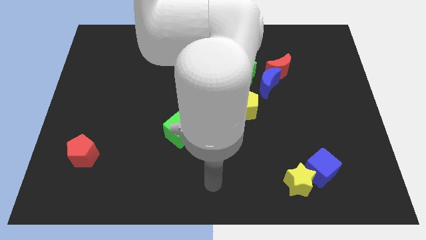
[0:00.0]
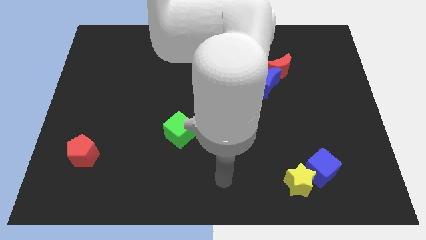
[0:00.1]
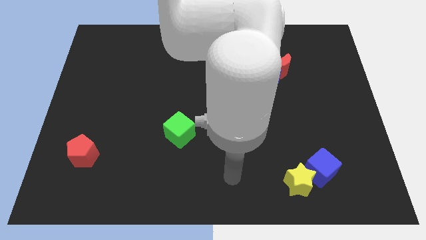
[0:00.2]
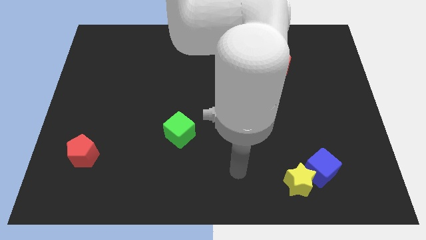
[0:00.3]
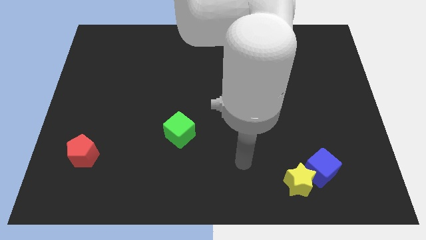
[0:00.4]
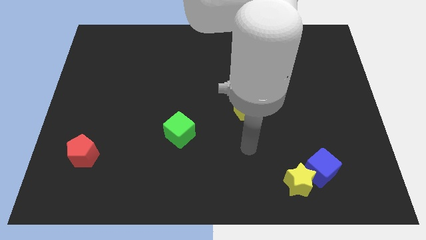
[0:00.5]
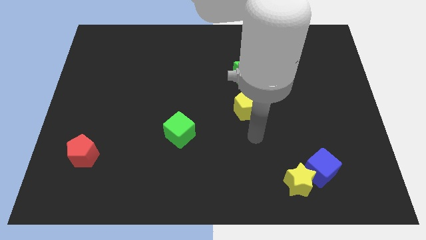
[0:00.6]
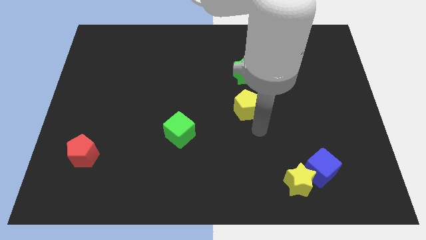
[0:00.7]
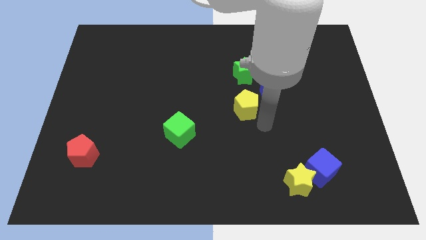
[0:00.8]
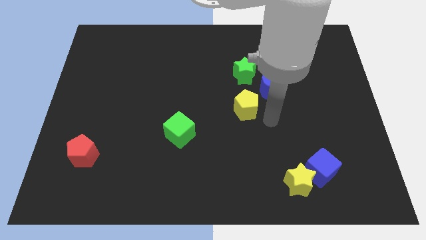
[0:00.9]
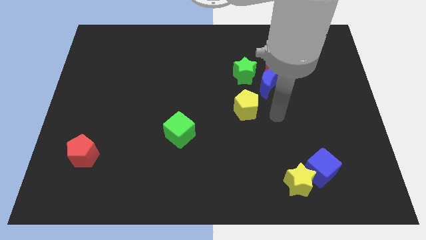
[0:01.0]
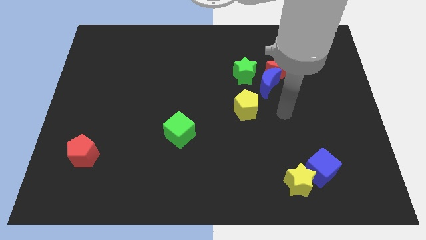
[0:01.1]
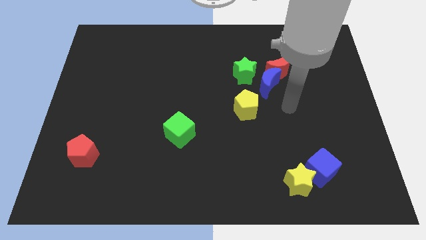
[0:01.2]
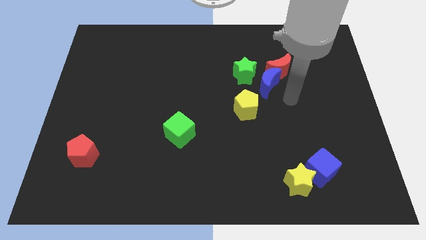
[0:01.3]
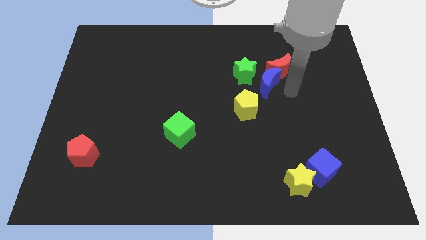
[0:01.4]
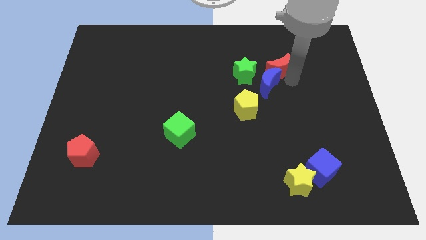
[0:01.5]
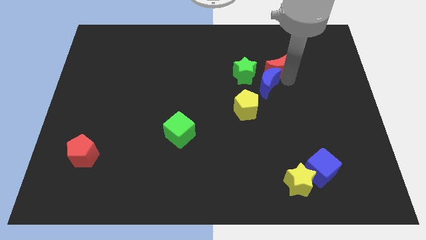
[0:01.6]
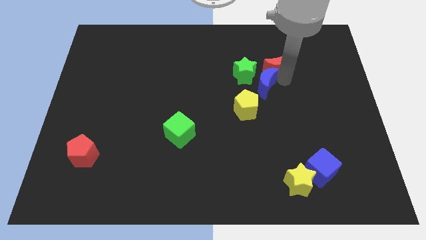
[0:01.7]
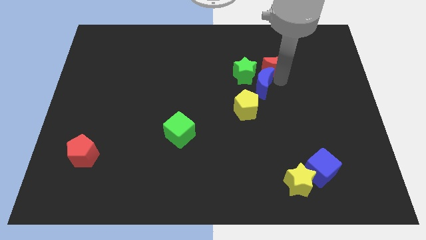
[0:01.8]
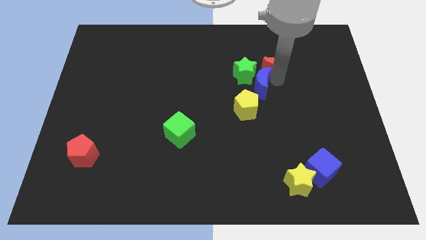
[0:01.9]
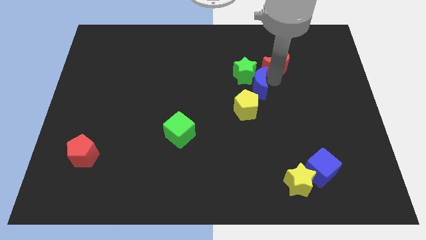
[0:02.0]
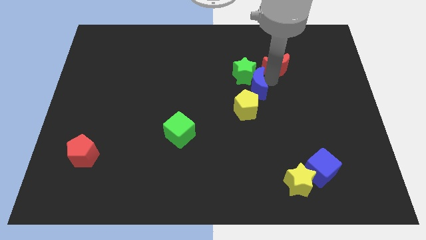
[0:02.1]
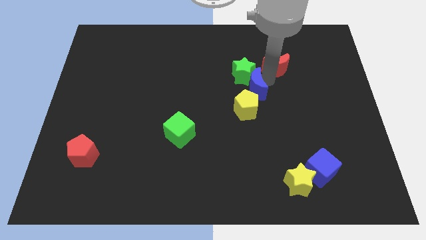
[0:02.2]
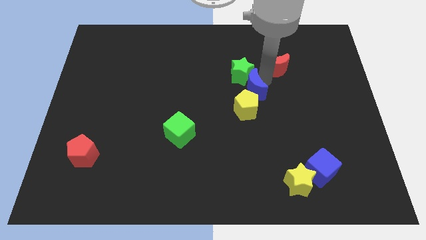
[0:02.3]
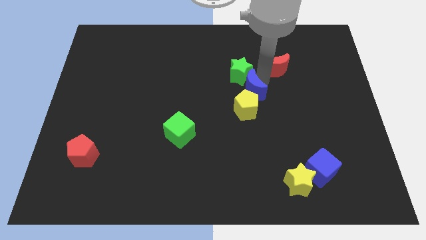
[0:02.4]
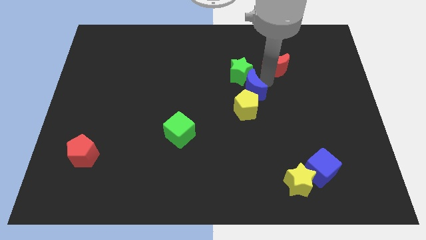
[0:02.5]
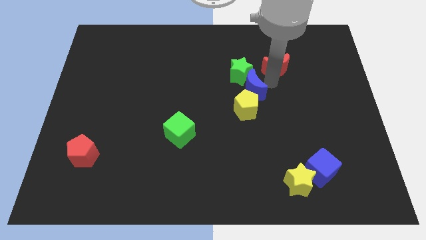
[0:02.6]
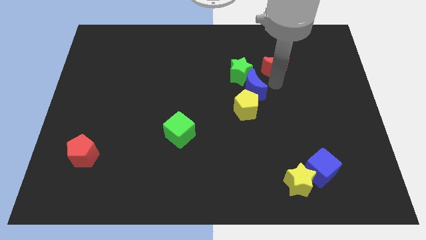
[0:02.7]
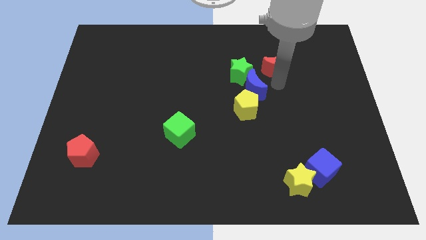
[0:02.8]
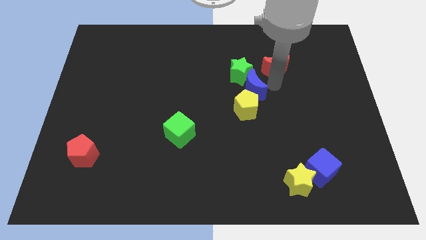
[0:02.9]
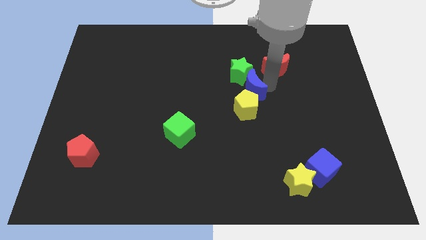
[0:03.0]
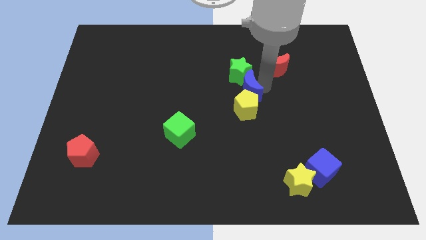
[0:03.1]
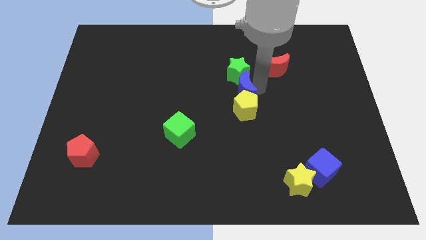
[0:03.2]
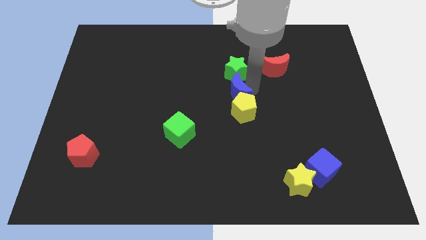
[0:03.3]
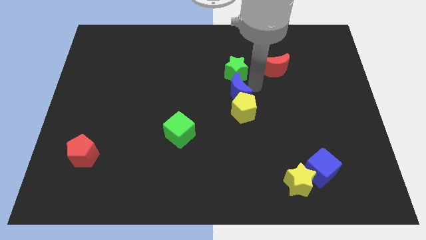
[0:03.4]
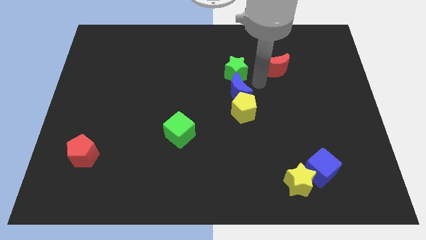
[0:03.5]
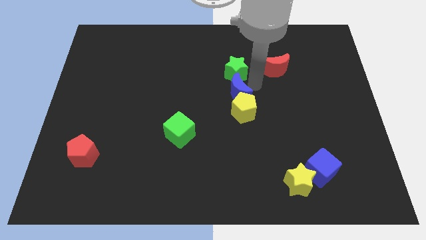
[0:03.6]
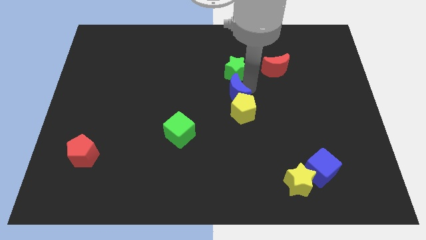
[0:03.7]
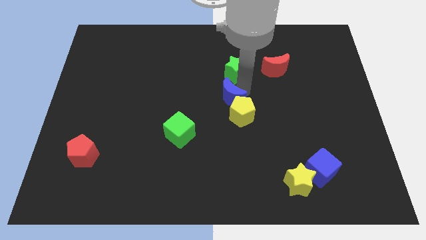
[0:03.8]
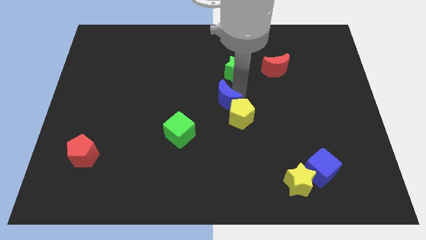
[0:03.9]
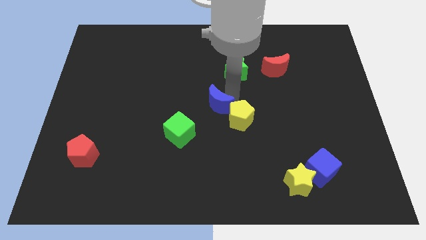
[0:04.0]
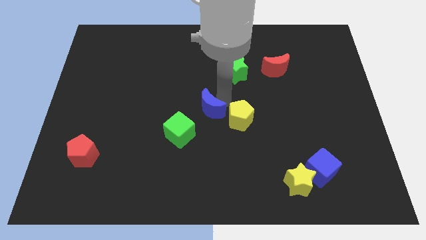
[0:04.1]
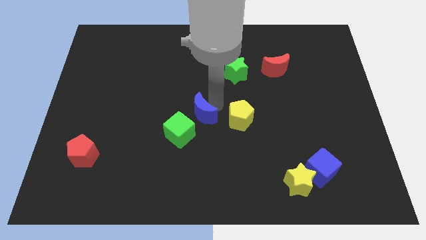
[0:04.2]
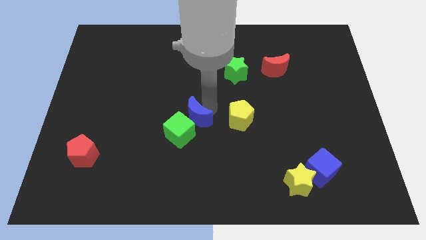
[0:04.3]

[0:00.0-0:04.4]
move the blue moon close to the green cube

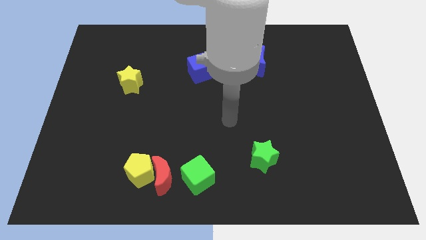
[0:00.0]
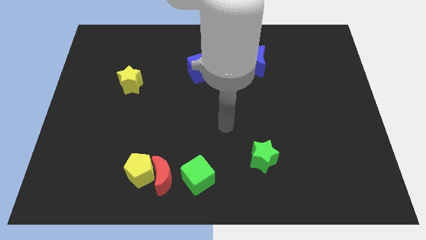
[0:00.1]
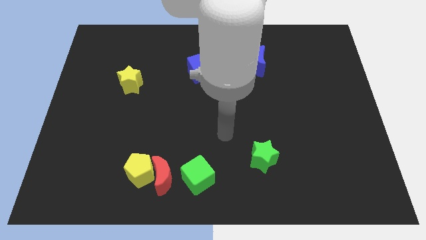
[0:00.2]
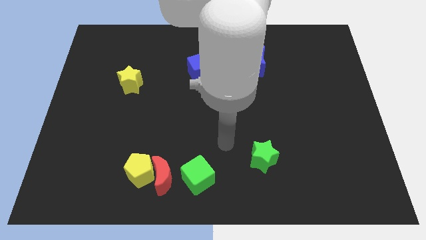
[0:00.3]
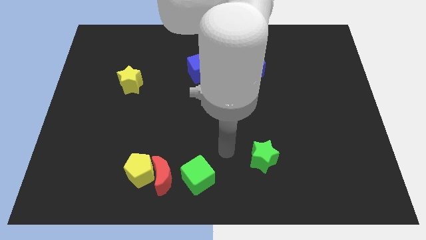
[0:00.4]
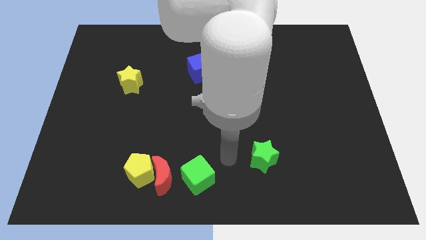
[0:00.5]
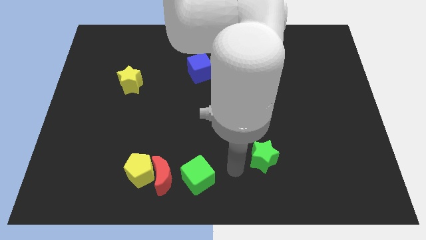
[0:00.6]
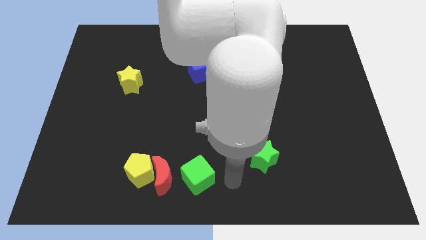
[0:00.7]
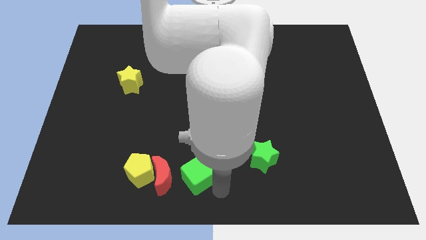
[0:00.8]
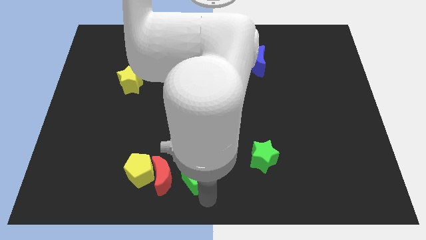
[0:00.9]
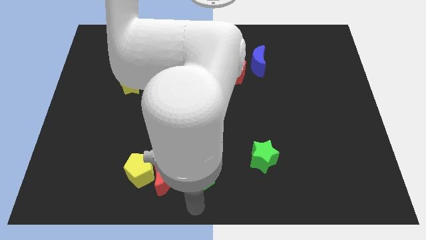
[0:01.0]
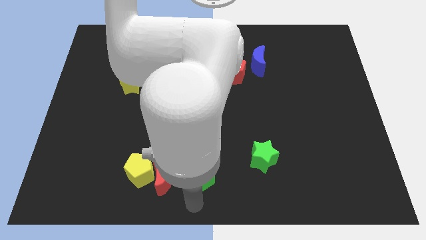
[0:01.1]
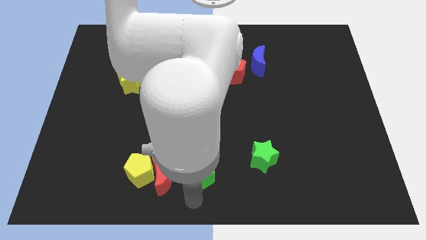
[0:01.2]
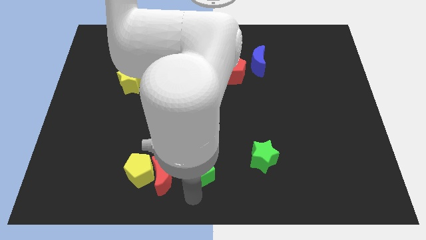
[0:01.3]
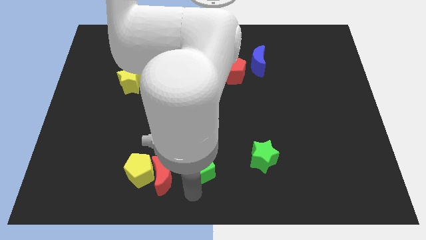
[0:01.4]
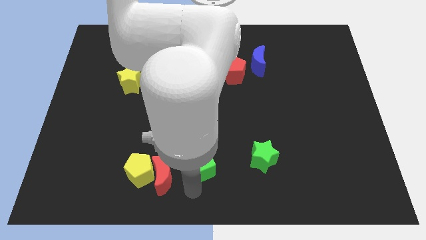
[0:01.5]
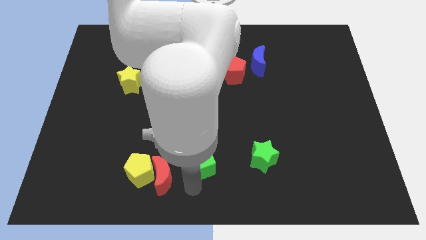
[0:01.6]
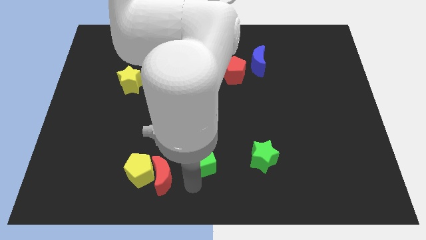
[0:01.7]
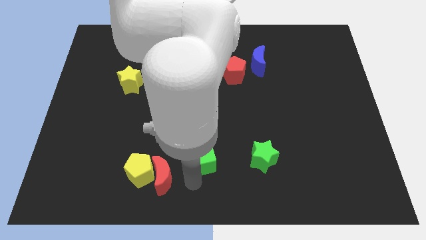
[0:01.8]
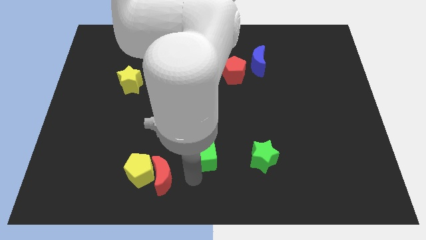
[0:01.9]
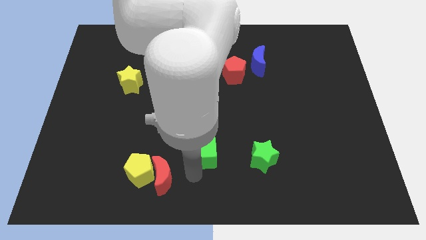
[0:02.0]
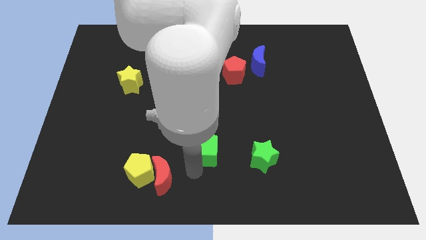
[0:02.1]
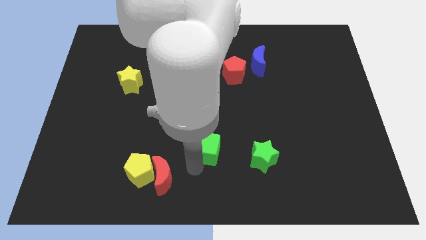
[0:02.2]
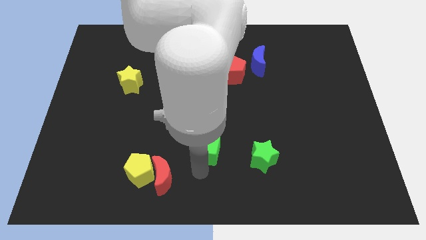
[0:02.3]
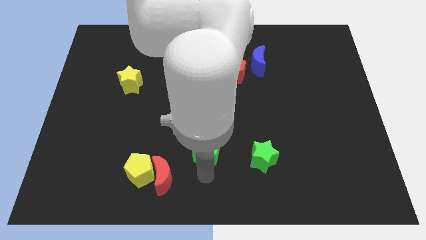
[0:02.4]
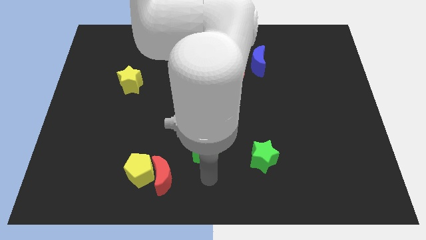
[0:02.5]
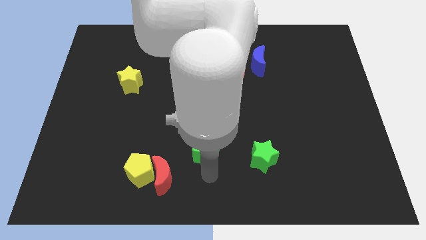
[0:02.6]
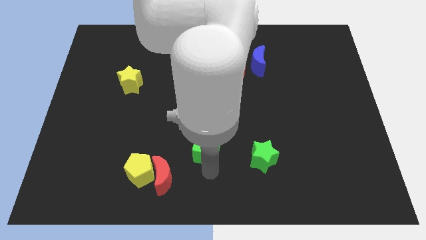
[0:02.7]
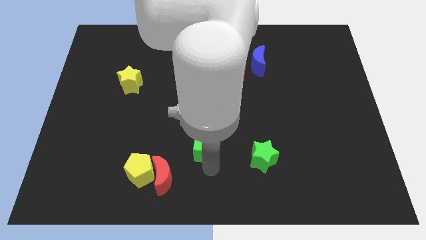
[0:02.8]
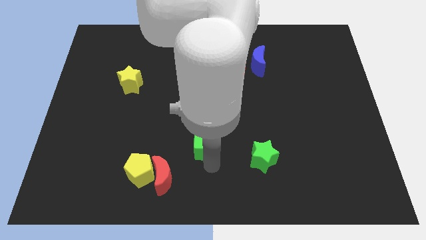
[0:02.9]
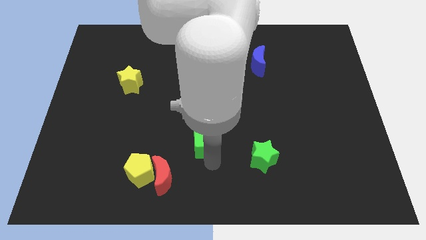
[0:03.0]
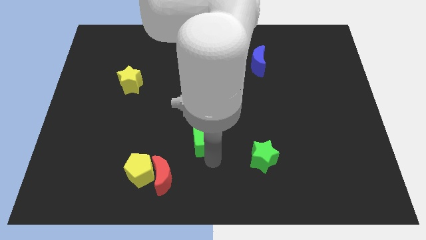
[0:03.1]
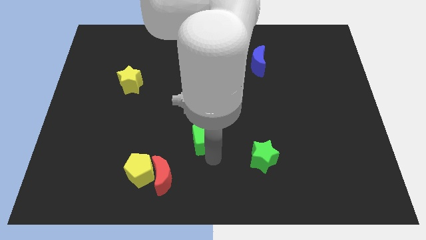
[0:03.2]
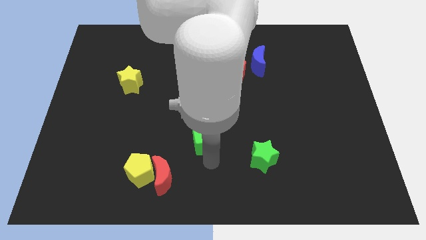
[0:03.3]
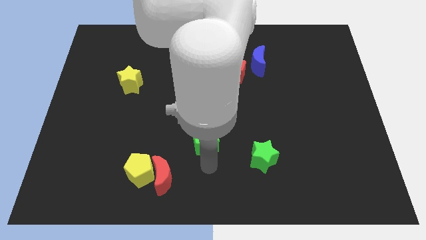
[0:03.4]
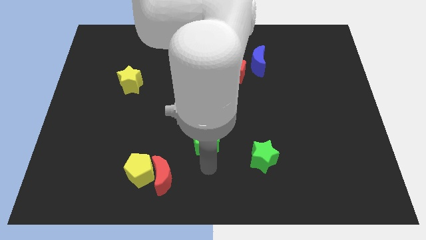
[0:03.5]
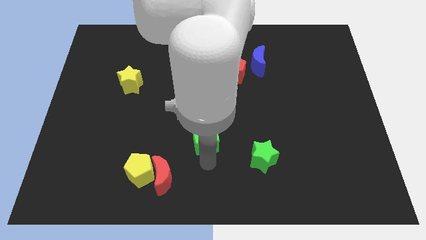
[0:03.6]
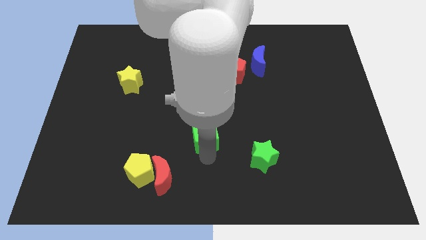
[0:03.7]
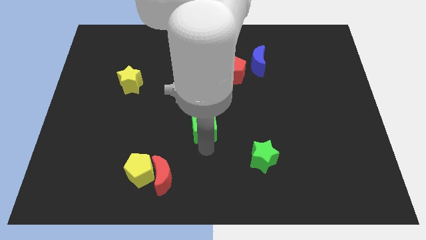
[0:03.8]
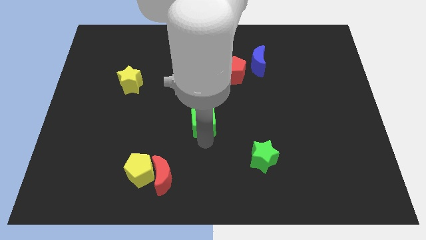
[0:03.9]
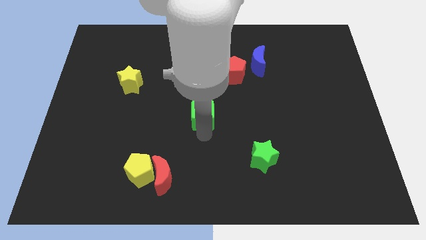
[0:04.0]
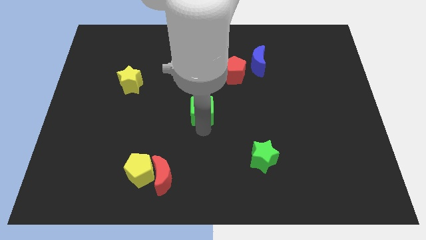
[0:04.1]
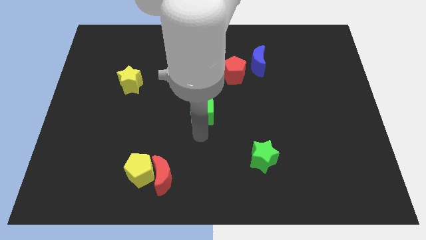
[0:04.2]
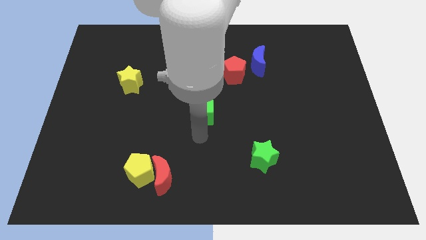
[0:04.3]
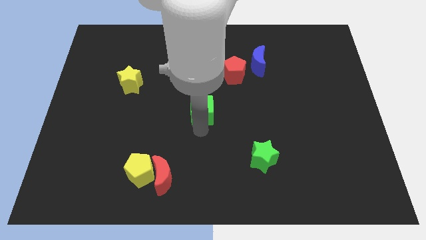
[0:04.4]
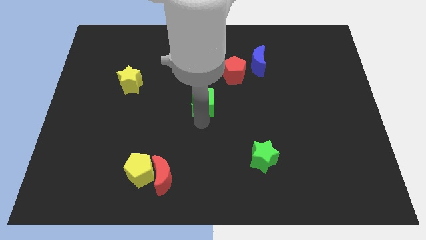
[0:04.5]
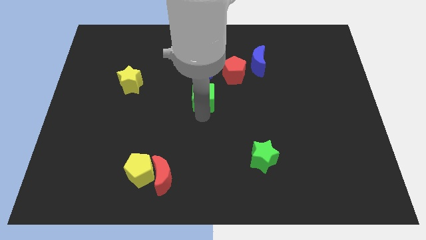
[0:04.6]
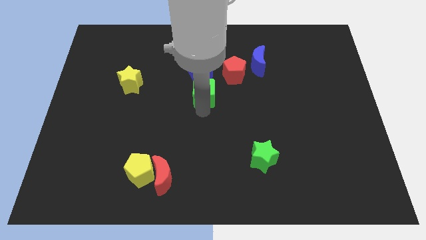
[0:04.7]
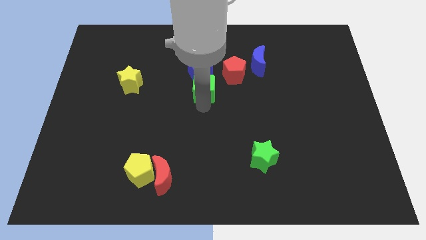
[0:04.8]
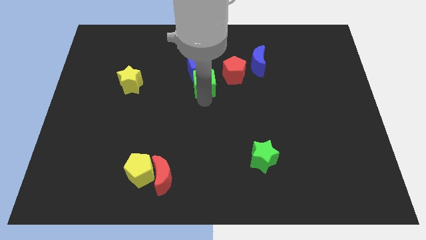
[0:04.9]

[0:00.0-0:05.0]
put the green cube towards the blue cube
